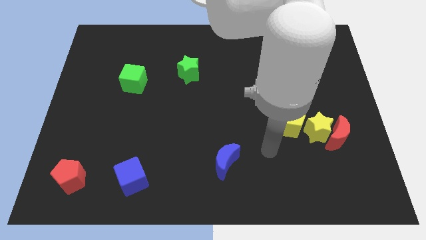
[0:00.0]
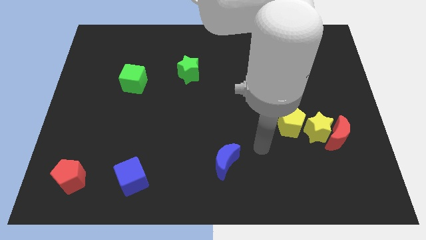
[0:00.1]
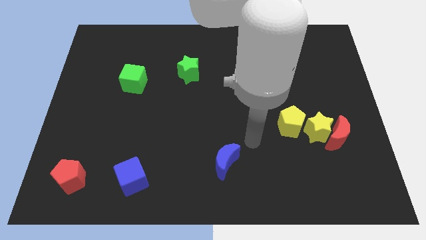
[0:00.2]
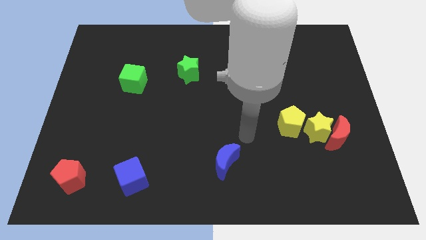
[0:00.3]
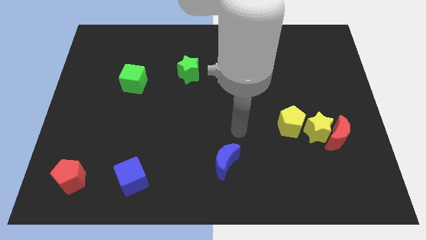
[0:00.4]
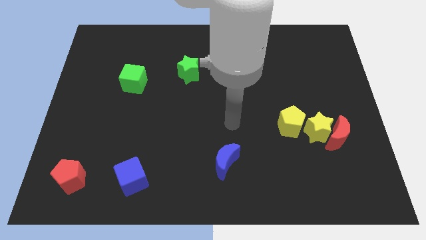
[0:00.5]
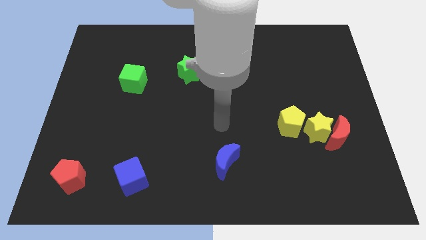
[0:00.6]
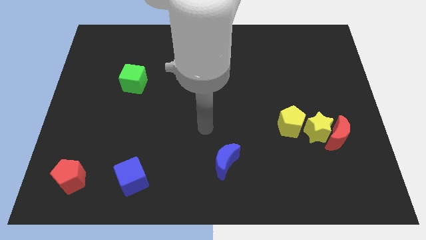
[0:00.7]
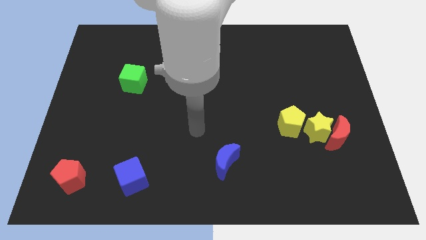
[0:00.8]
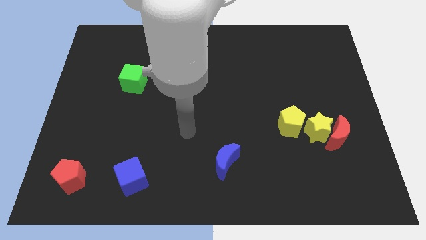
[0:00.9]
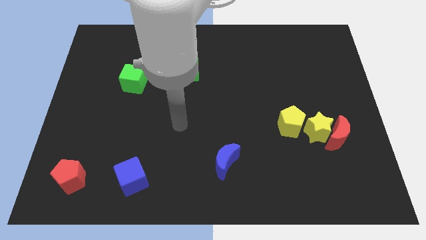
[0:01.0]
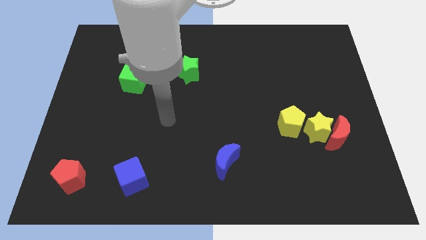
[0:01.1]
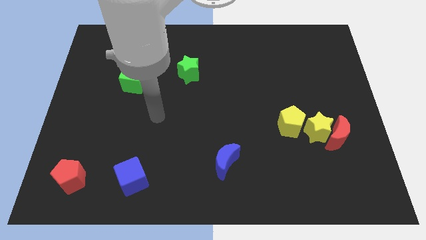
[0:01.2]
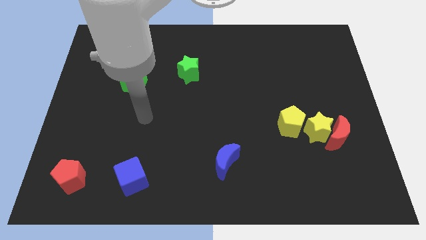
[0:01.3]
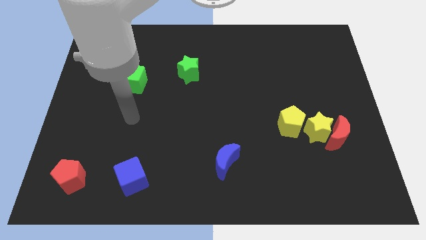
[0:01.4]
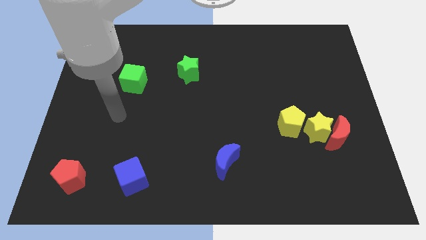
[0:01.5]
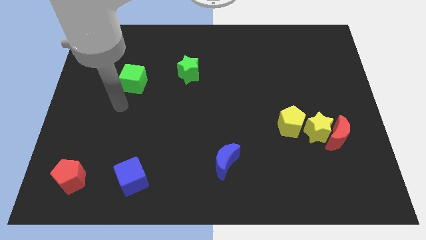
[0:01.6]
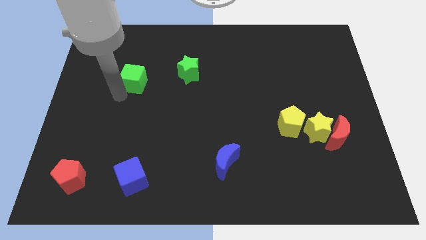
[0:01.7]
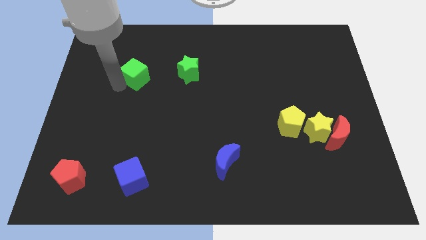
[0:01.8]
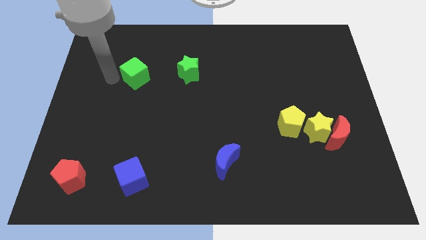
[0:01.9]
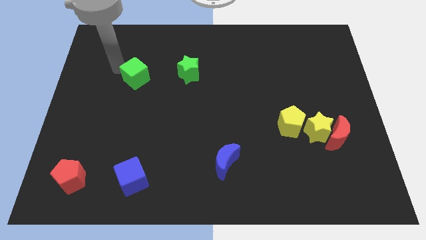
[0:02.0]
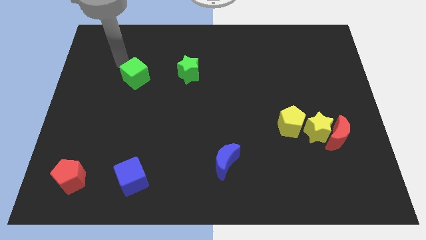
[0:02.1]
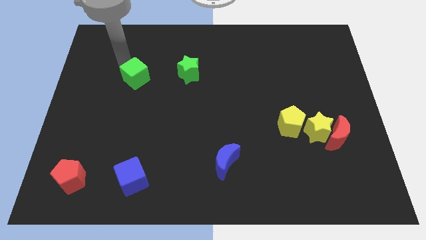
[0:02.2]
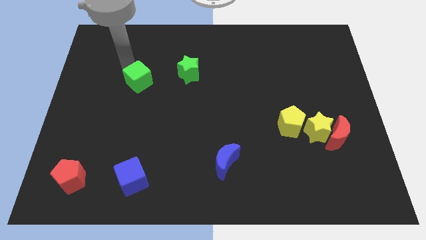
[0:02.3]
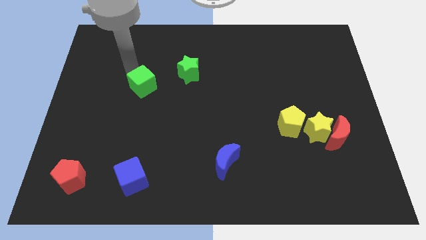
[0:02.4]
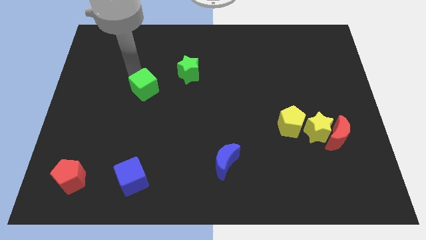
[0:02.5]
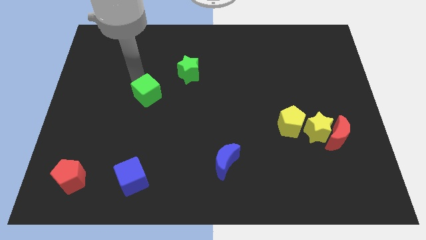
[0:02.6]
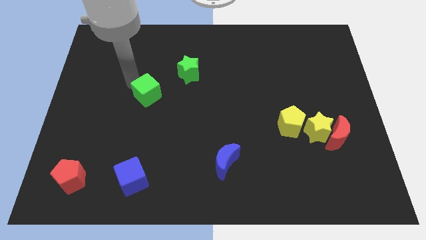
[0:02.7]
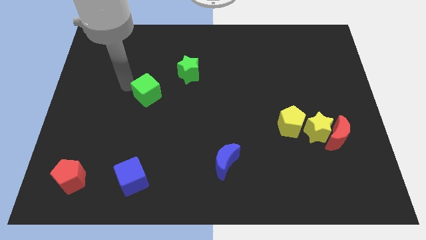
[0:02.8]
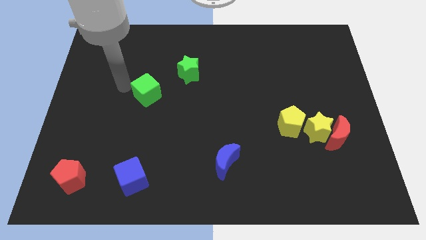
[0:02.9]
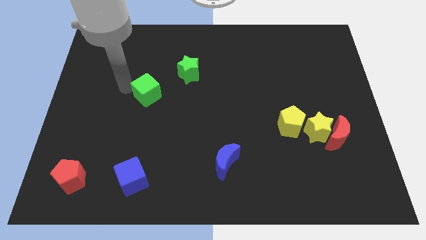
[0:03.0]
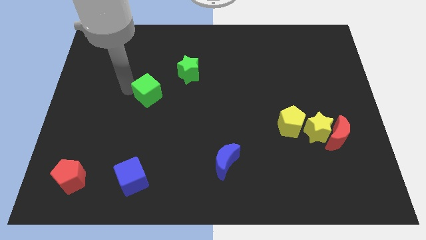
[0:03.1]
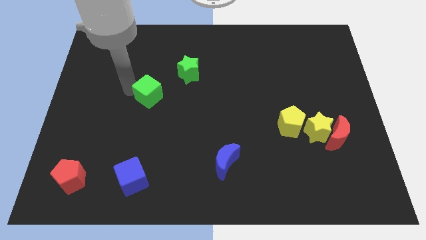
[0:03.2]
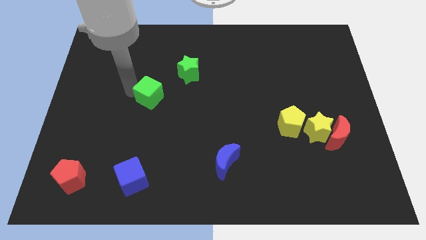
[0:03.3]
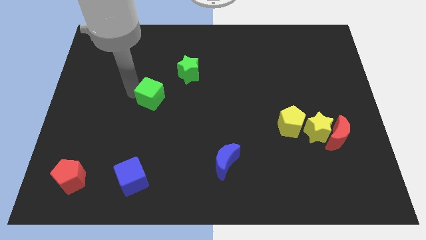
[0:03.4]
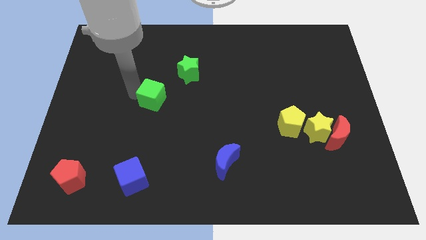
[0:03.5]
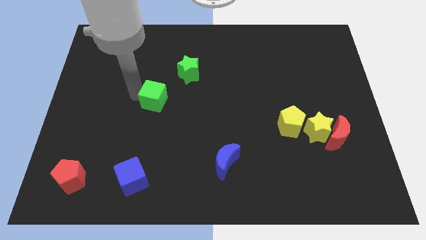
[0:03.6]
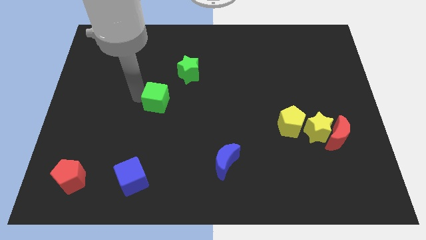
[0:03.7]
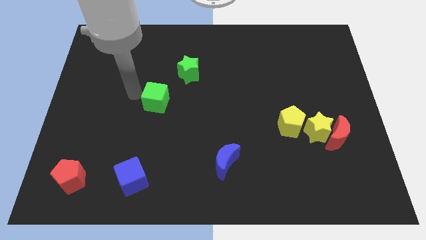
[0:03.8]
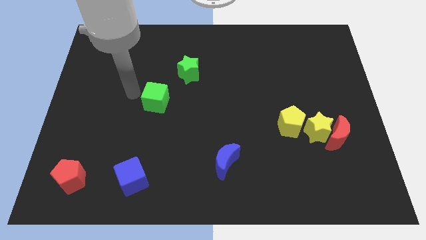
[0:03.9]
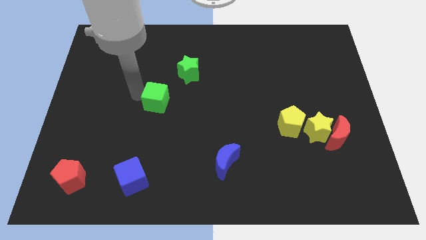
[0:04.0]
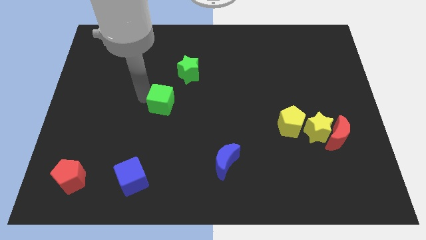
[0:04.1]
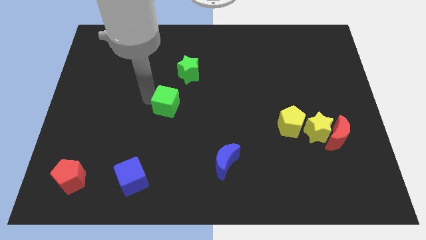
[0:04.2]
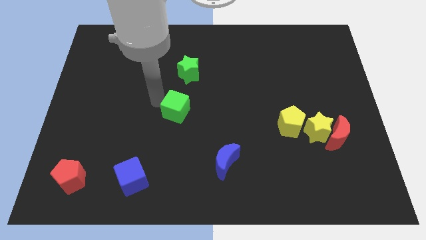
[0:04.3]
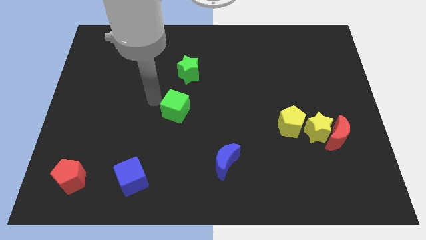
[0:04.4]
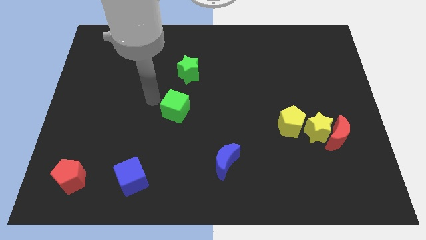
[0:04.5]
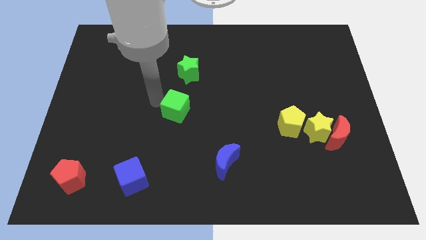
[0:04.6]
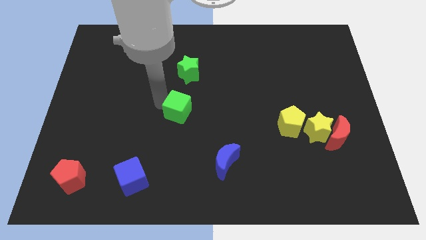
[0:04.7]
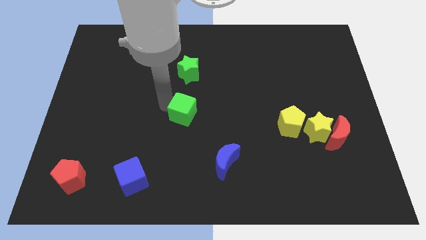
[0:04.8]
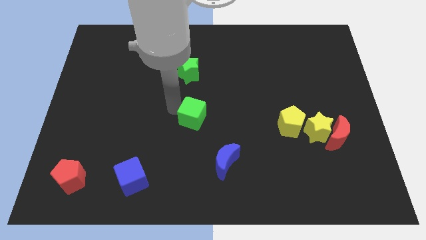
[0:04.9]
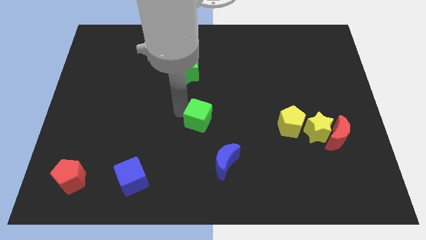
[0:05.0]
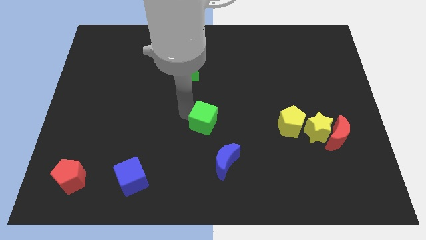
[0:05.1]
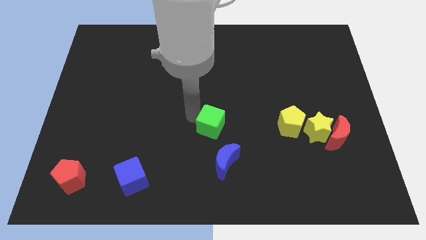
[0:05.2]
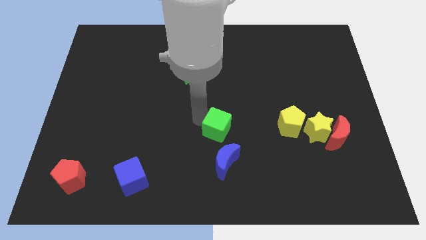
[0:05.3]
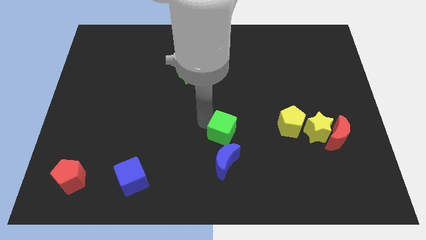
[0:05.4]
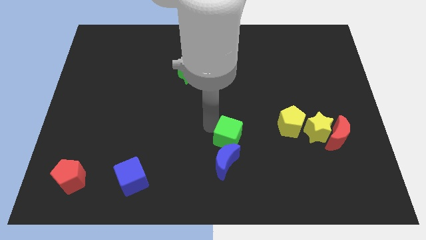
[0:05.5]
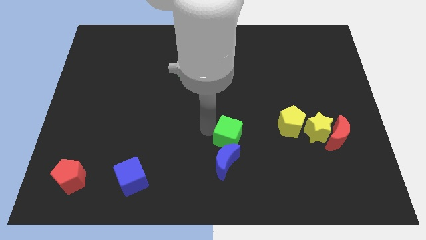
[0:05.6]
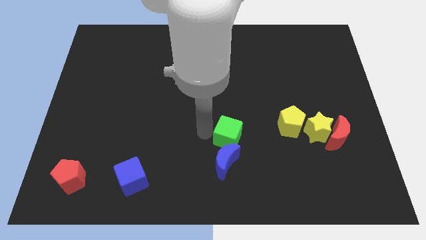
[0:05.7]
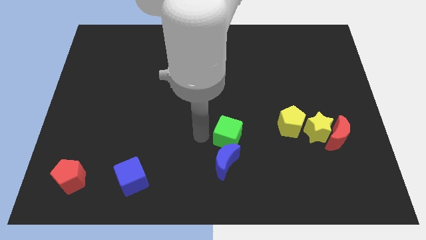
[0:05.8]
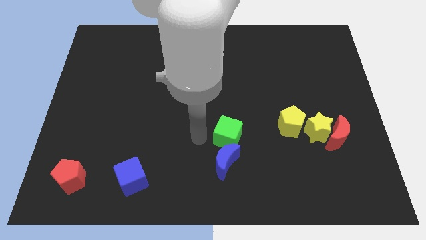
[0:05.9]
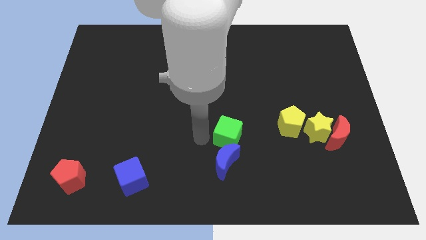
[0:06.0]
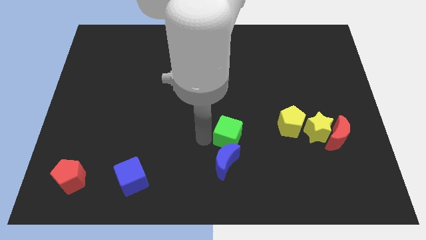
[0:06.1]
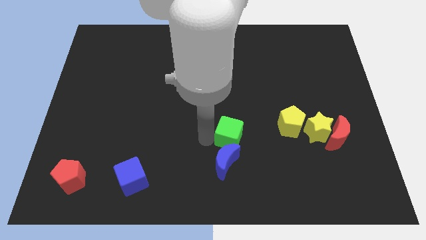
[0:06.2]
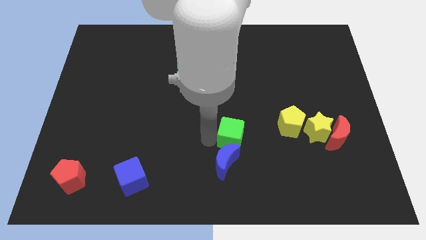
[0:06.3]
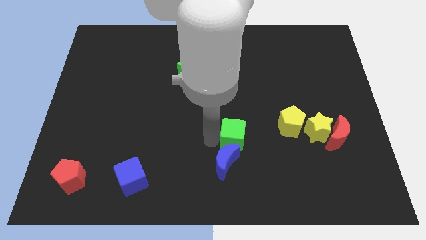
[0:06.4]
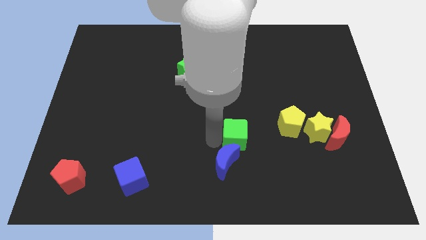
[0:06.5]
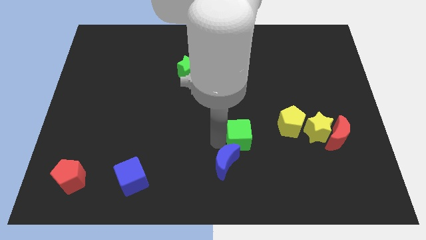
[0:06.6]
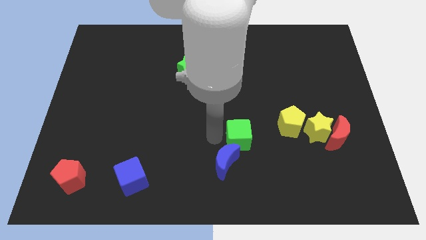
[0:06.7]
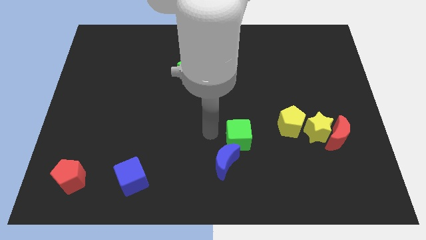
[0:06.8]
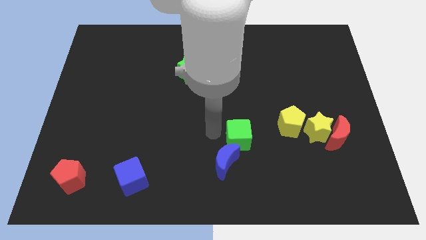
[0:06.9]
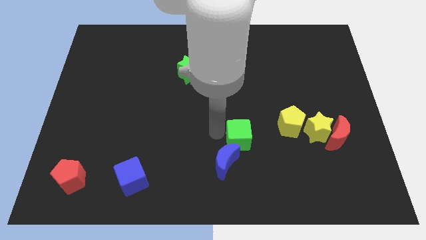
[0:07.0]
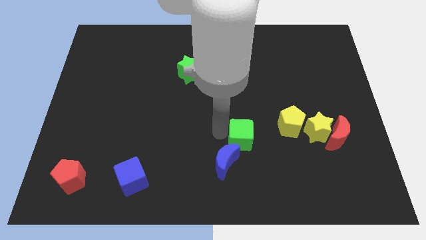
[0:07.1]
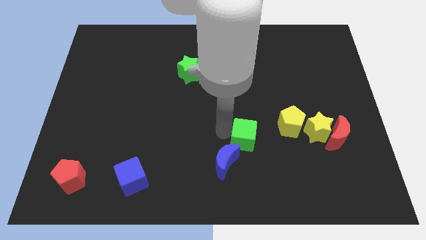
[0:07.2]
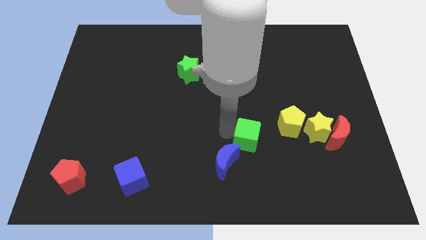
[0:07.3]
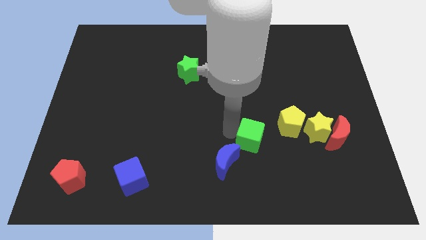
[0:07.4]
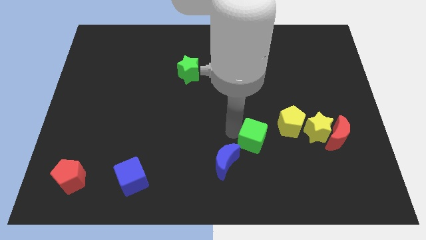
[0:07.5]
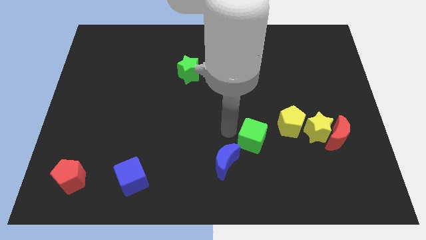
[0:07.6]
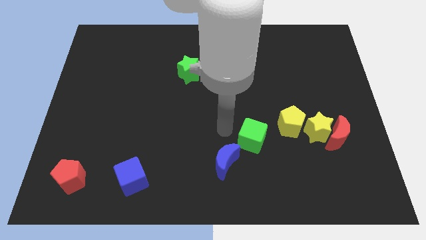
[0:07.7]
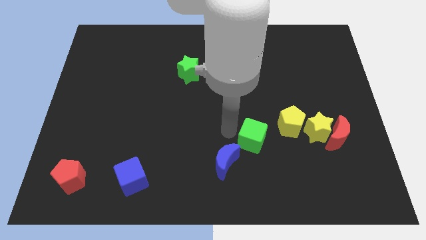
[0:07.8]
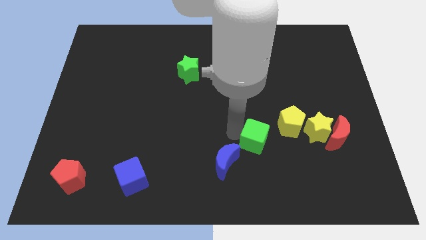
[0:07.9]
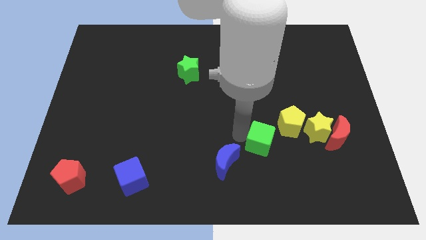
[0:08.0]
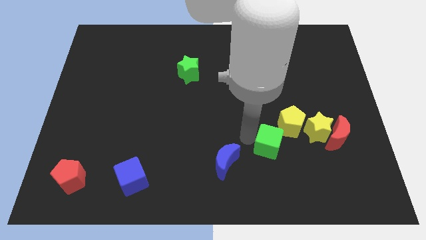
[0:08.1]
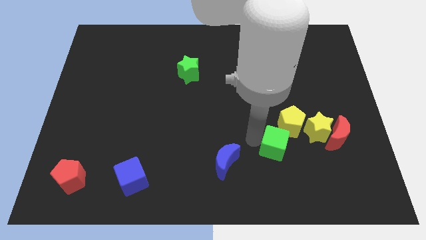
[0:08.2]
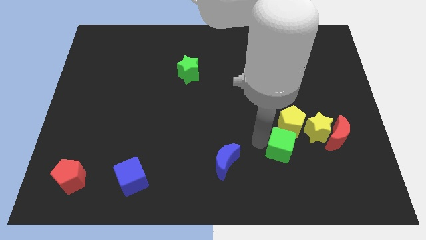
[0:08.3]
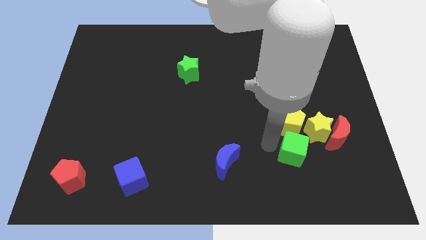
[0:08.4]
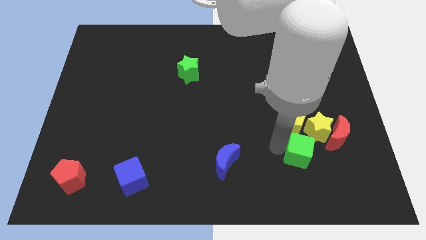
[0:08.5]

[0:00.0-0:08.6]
put the green cube to the bottom left side of the red moon
